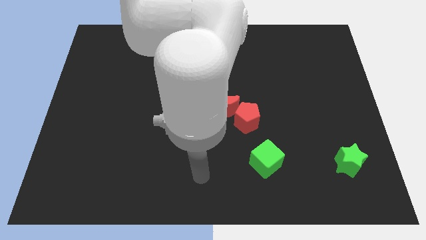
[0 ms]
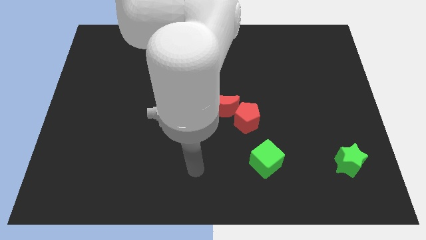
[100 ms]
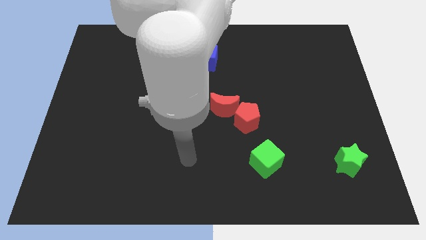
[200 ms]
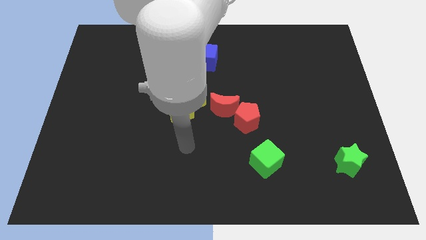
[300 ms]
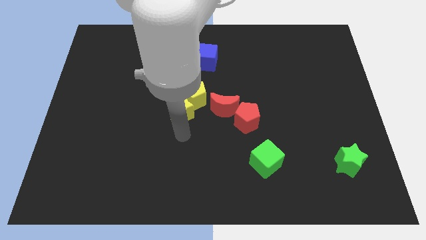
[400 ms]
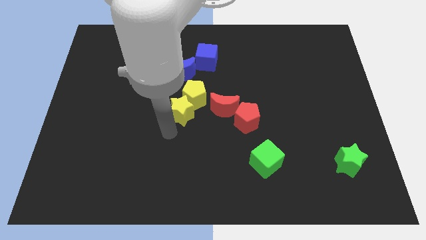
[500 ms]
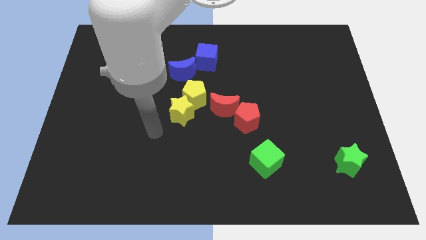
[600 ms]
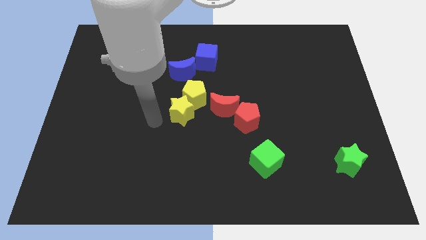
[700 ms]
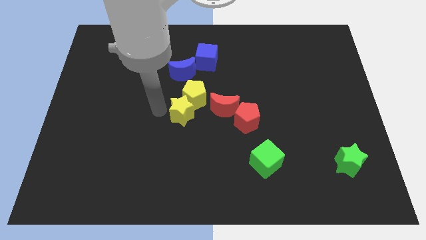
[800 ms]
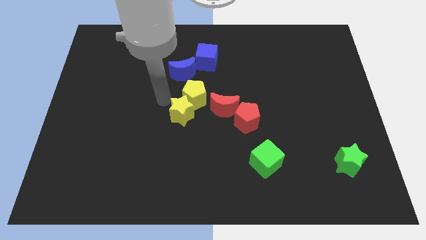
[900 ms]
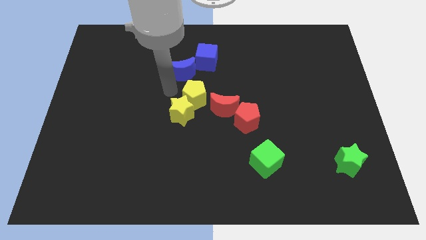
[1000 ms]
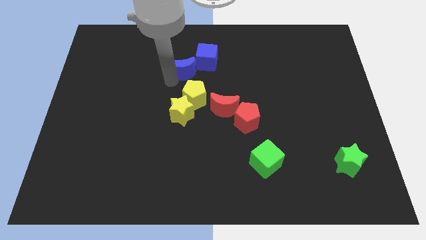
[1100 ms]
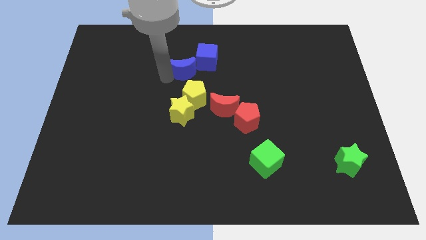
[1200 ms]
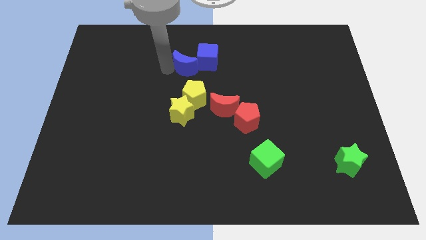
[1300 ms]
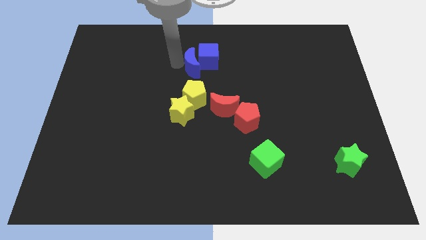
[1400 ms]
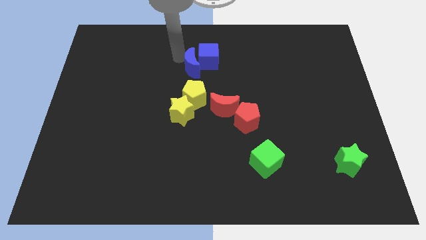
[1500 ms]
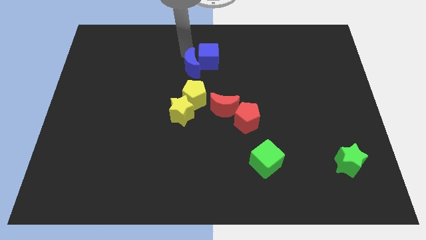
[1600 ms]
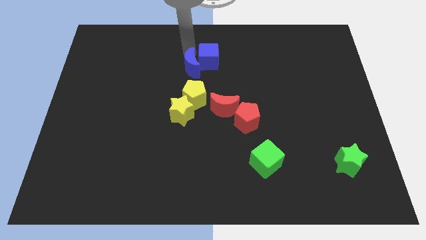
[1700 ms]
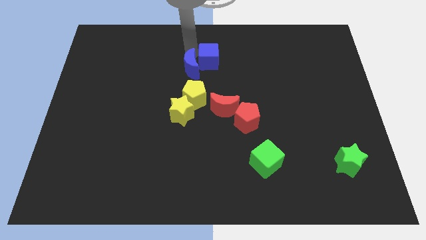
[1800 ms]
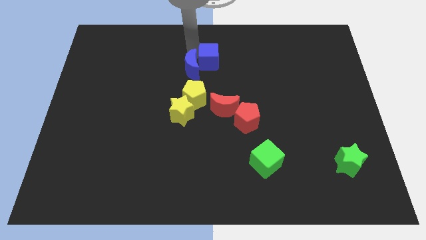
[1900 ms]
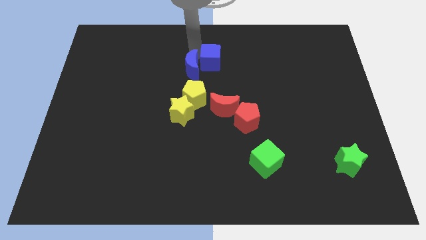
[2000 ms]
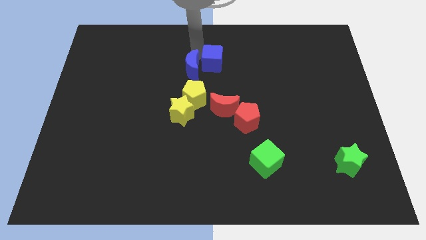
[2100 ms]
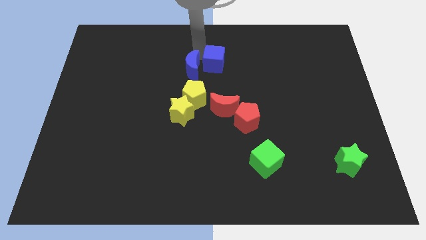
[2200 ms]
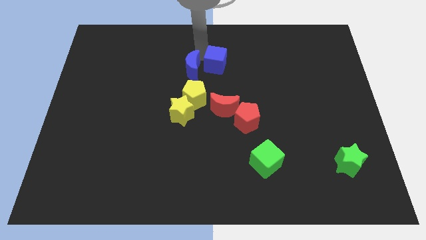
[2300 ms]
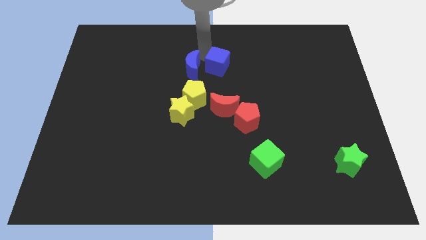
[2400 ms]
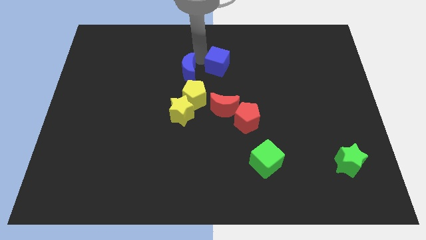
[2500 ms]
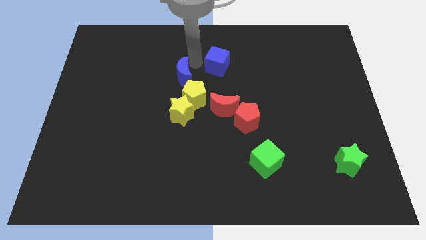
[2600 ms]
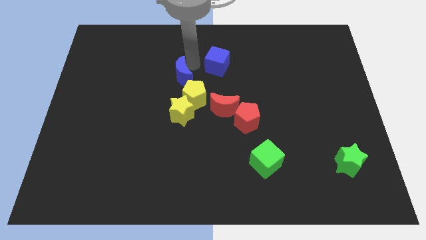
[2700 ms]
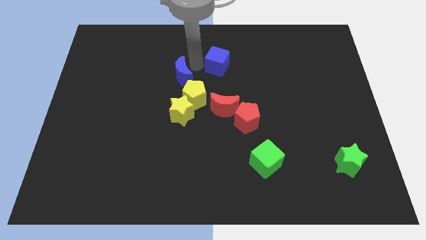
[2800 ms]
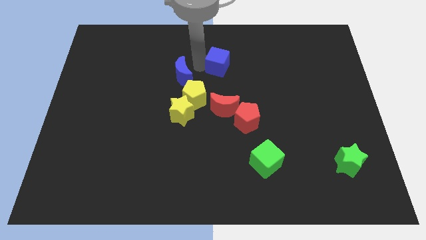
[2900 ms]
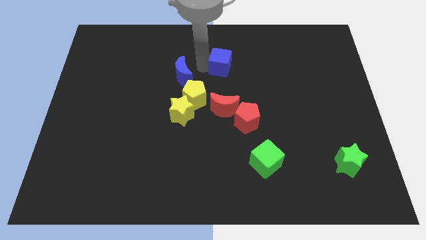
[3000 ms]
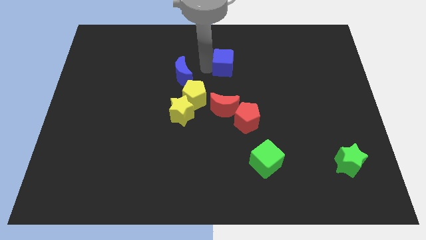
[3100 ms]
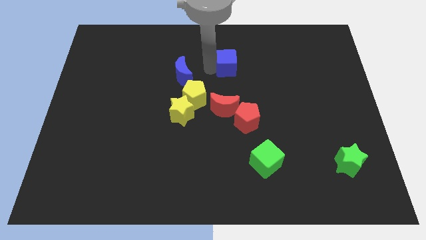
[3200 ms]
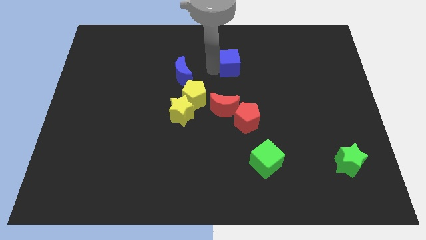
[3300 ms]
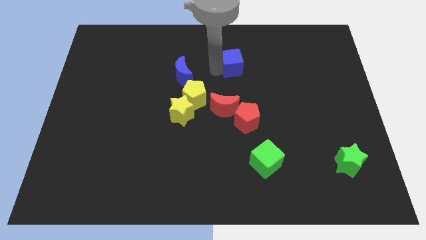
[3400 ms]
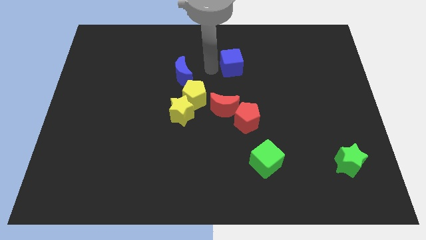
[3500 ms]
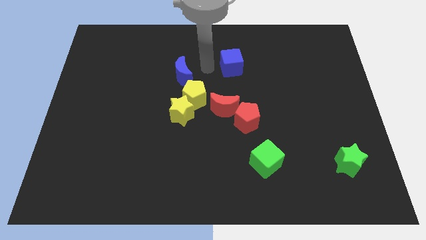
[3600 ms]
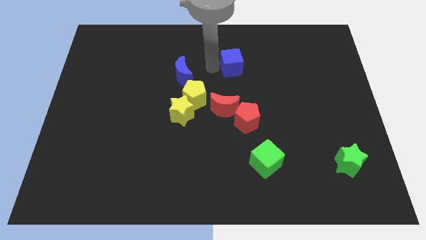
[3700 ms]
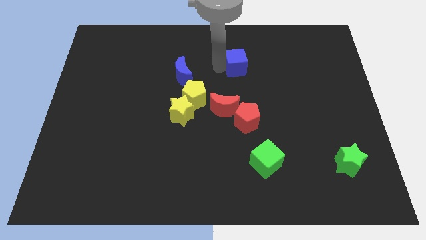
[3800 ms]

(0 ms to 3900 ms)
slide the blue cube a little to the right

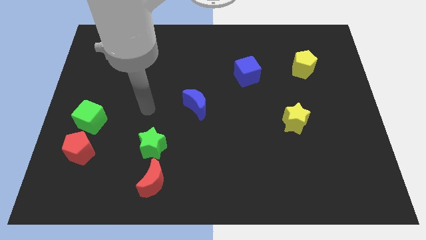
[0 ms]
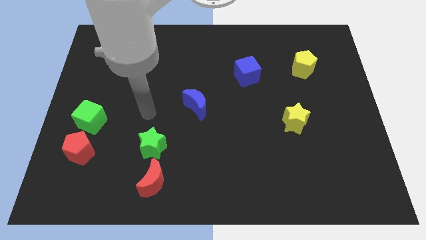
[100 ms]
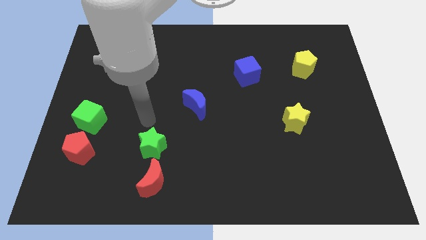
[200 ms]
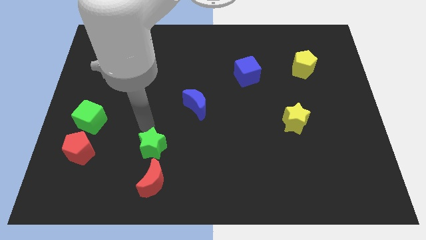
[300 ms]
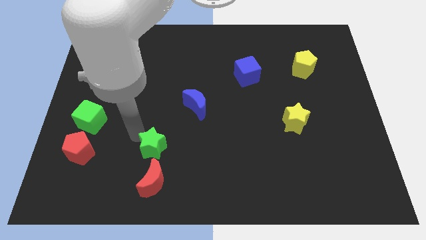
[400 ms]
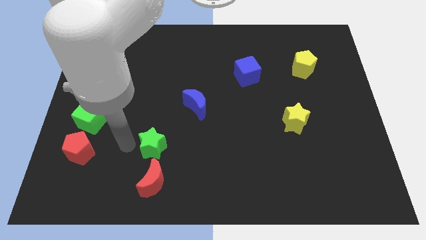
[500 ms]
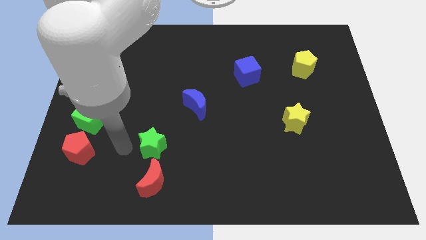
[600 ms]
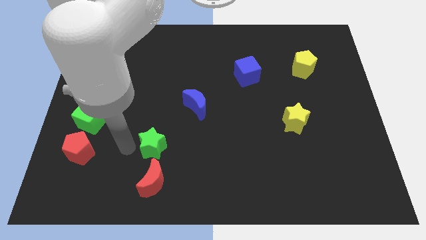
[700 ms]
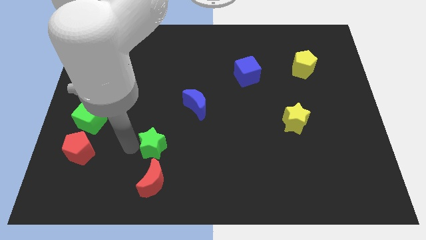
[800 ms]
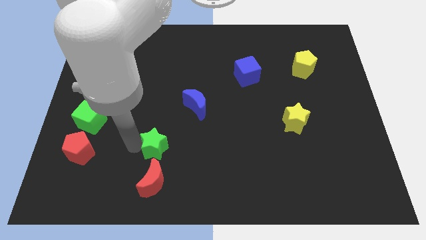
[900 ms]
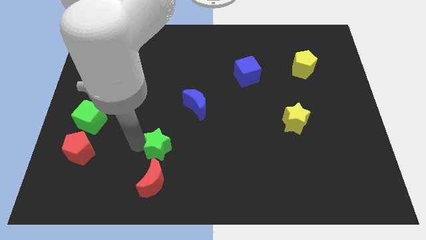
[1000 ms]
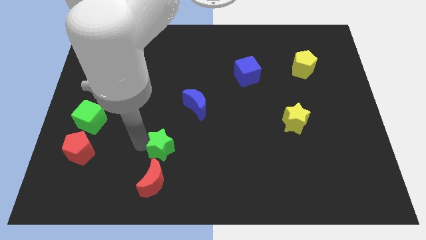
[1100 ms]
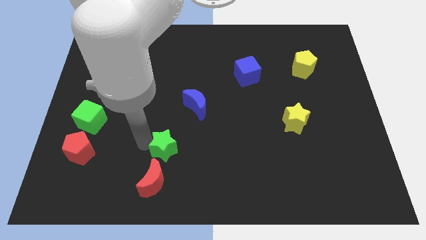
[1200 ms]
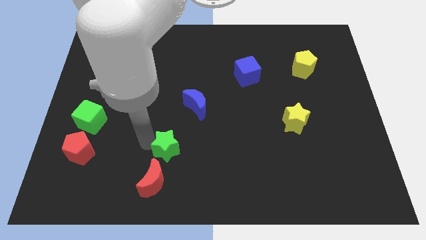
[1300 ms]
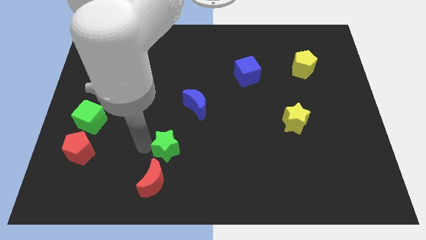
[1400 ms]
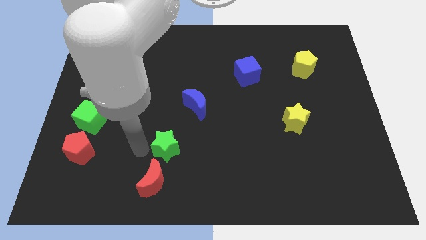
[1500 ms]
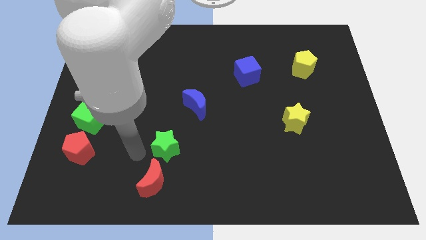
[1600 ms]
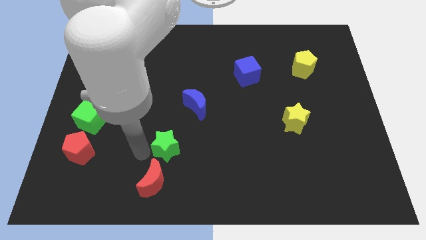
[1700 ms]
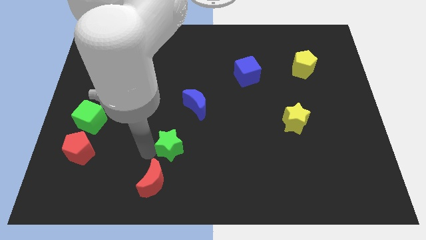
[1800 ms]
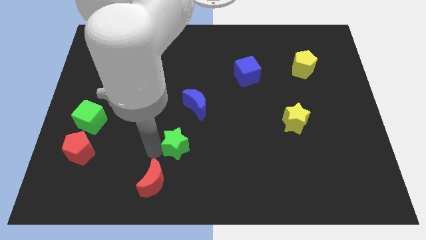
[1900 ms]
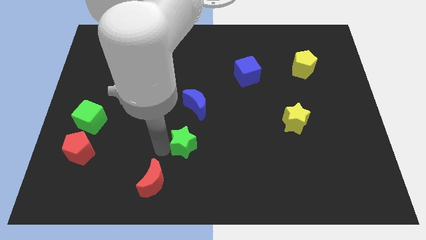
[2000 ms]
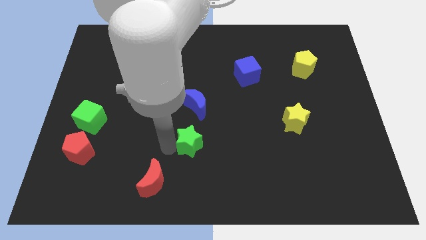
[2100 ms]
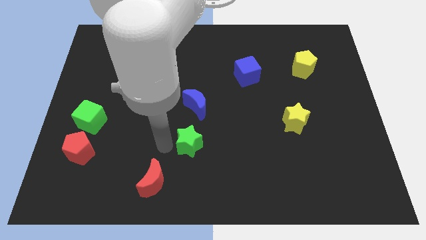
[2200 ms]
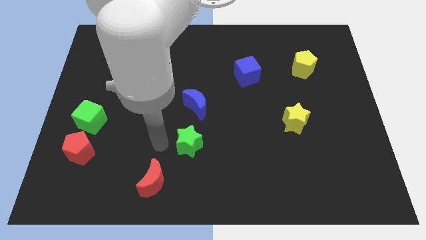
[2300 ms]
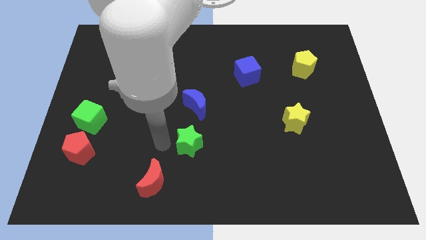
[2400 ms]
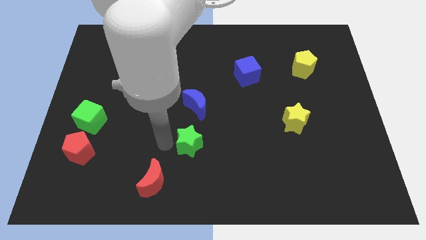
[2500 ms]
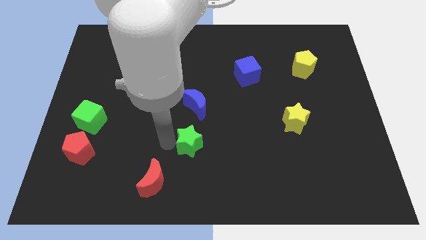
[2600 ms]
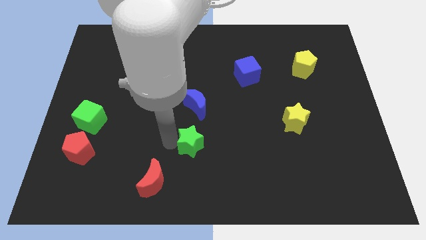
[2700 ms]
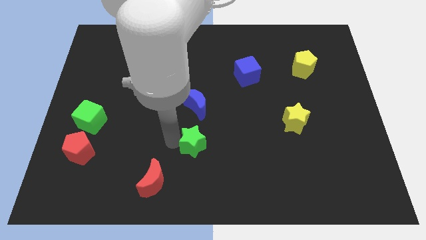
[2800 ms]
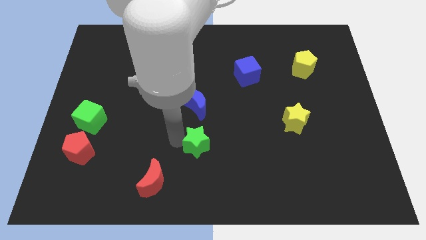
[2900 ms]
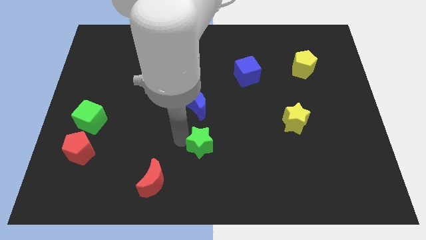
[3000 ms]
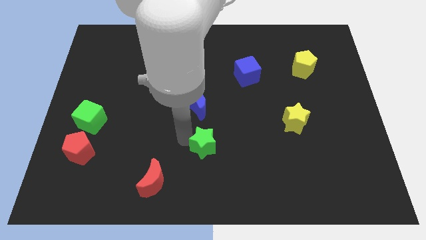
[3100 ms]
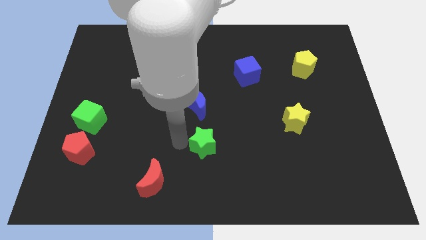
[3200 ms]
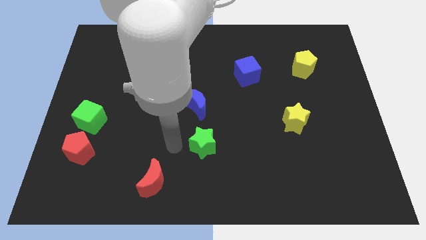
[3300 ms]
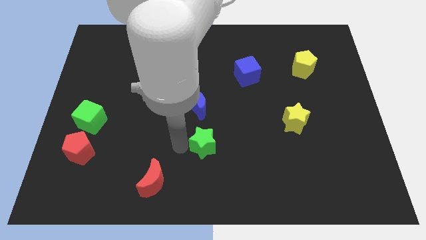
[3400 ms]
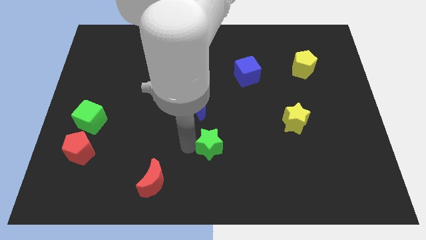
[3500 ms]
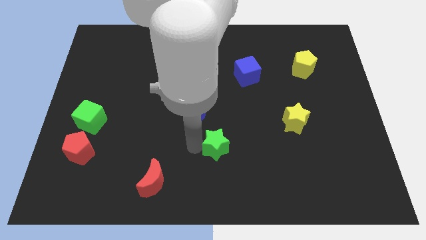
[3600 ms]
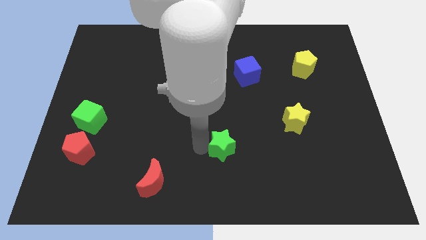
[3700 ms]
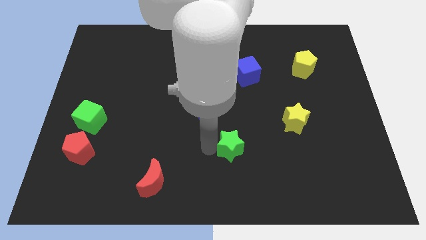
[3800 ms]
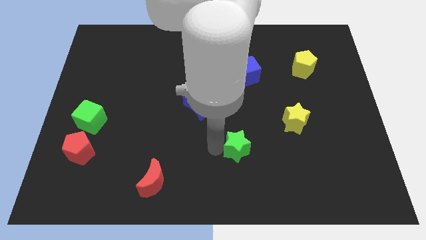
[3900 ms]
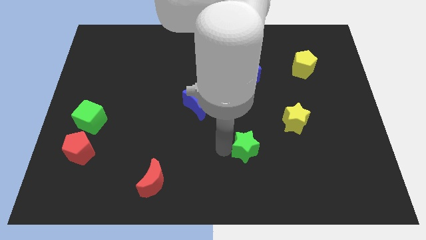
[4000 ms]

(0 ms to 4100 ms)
slide the green star right
